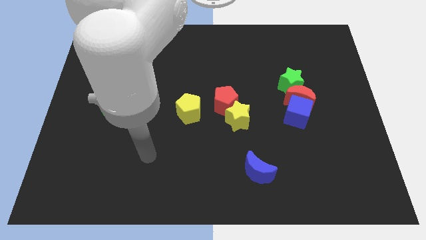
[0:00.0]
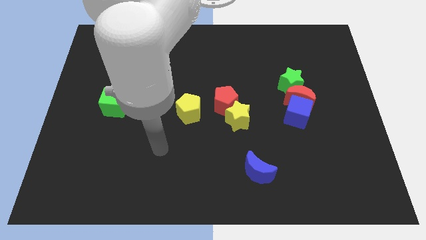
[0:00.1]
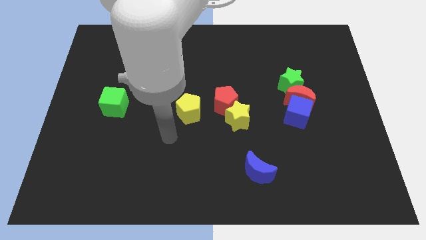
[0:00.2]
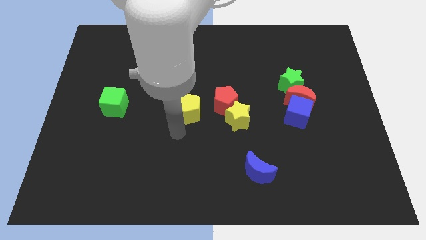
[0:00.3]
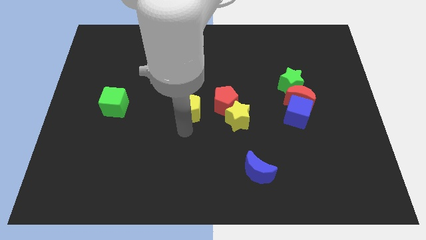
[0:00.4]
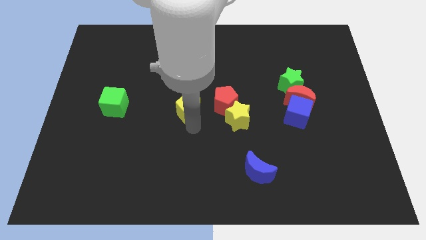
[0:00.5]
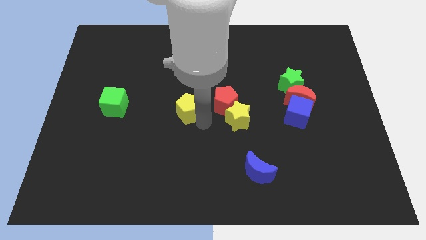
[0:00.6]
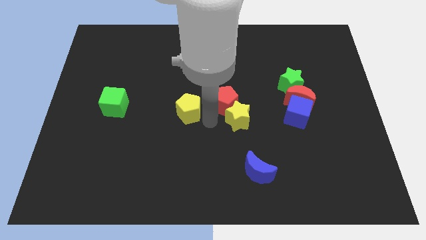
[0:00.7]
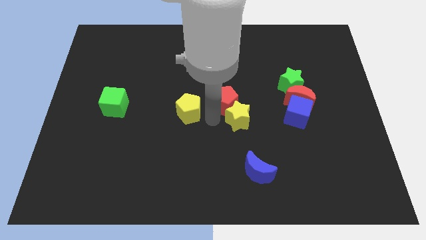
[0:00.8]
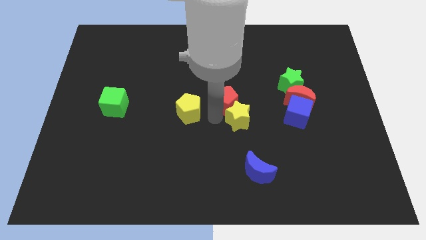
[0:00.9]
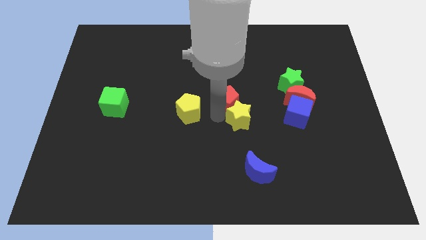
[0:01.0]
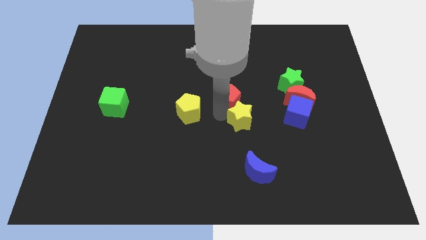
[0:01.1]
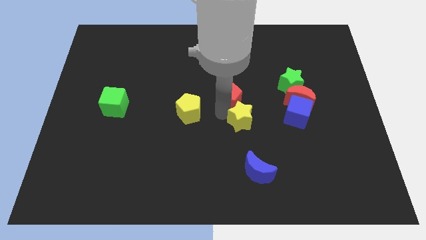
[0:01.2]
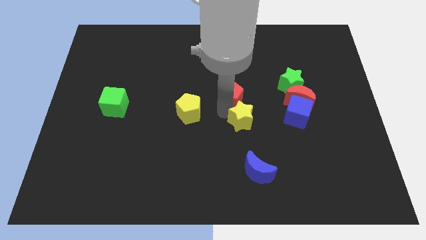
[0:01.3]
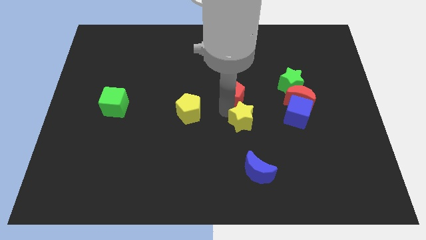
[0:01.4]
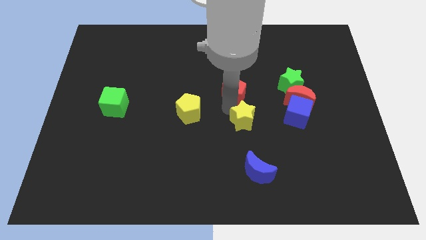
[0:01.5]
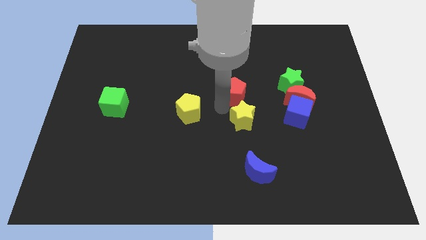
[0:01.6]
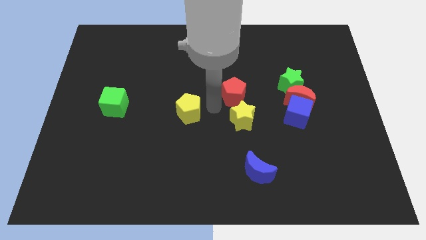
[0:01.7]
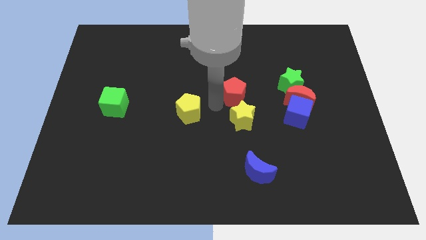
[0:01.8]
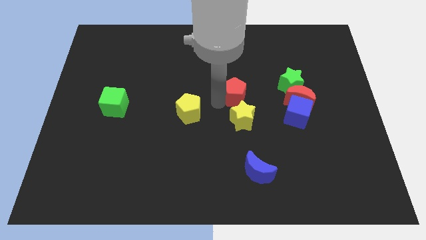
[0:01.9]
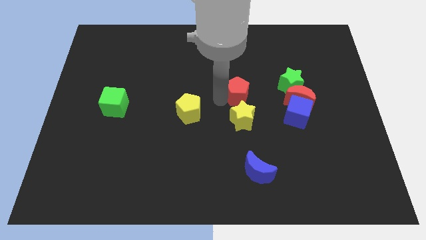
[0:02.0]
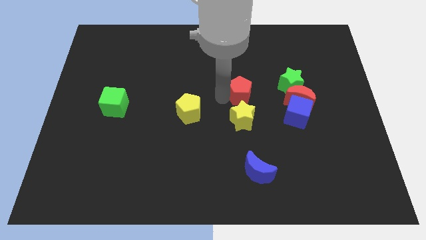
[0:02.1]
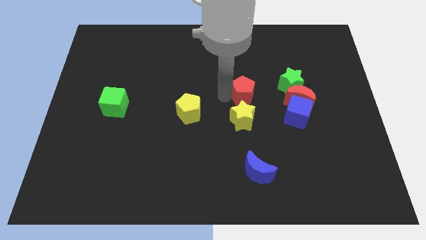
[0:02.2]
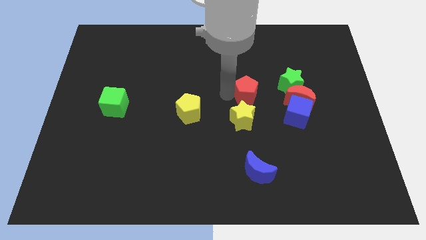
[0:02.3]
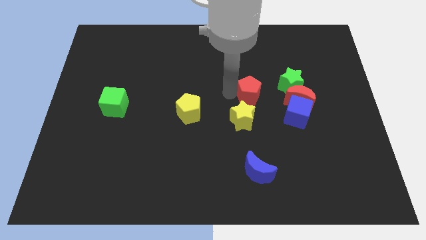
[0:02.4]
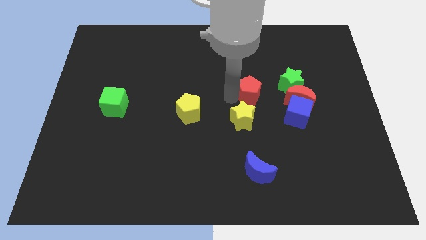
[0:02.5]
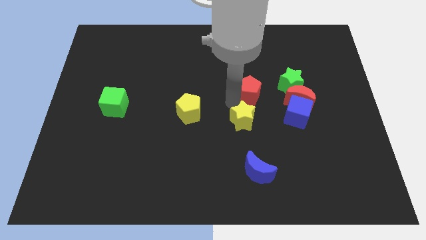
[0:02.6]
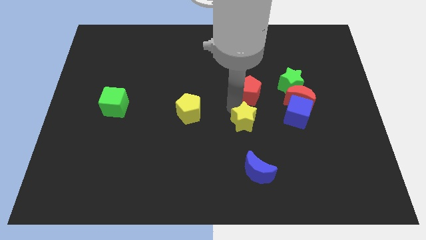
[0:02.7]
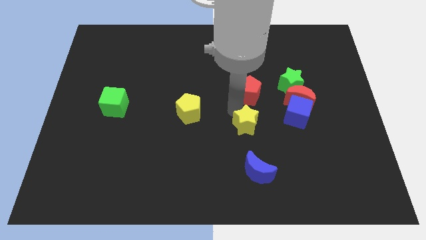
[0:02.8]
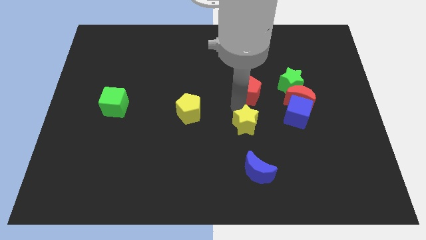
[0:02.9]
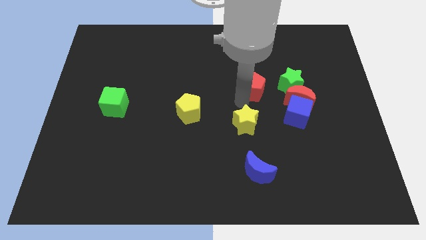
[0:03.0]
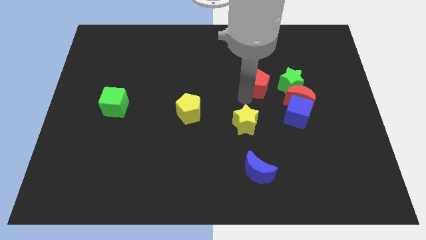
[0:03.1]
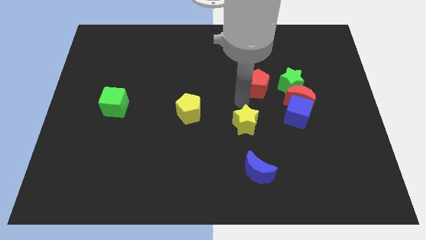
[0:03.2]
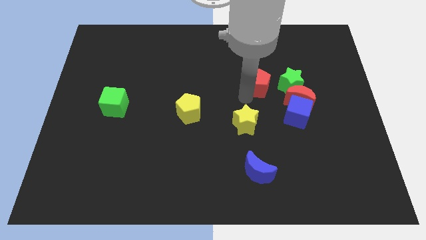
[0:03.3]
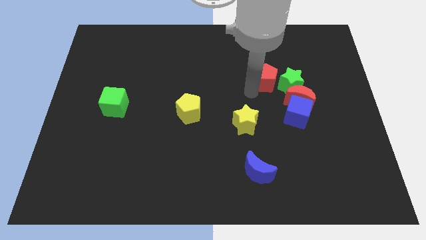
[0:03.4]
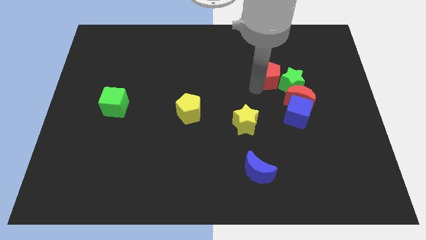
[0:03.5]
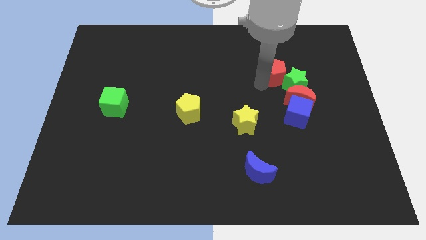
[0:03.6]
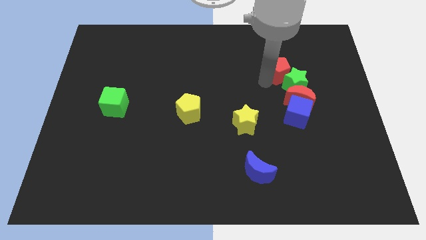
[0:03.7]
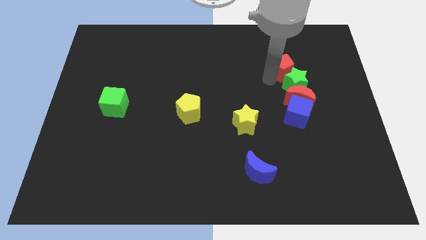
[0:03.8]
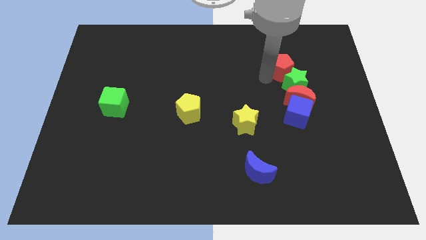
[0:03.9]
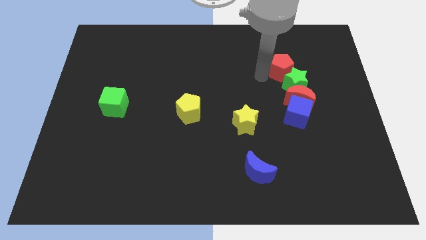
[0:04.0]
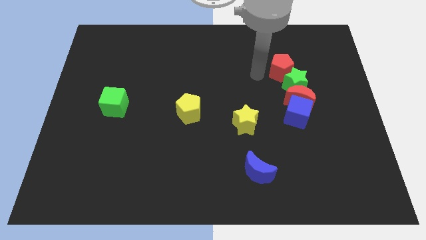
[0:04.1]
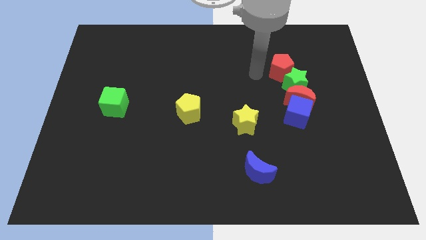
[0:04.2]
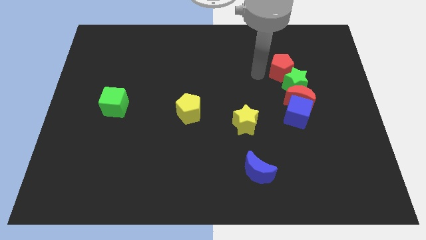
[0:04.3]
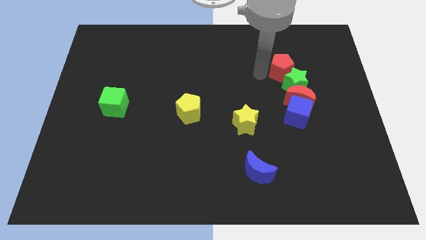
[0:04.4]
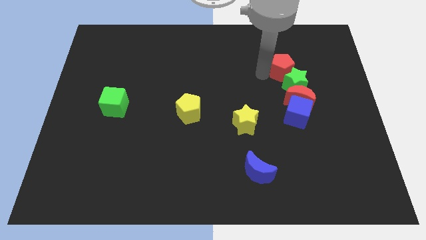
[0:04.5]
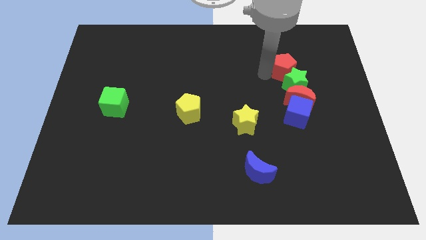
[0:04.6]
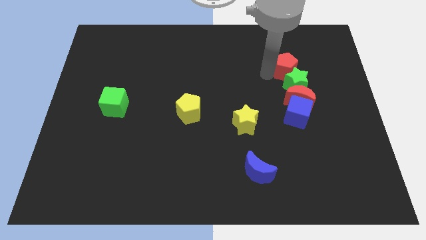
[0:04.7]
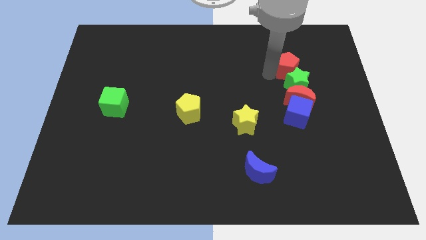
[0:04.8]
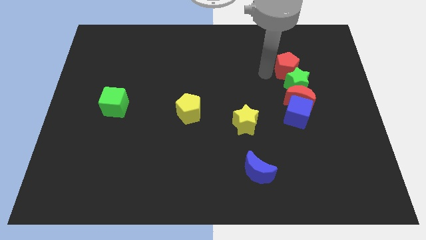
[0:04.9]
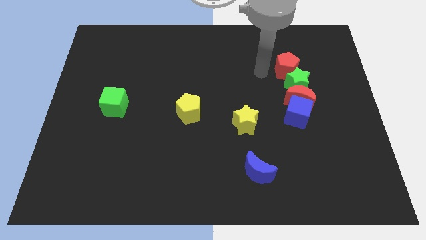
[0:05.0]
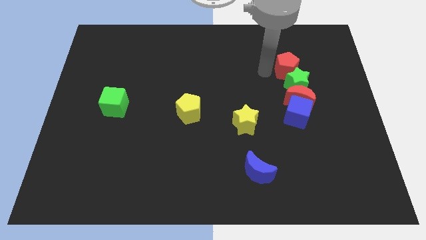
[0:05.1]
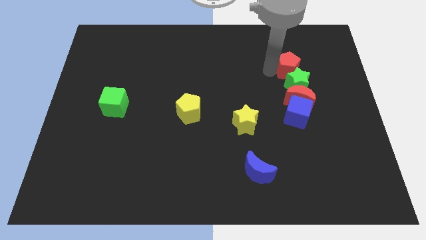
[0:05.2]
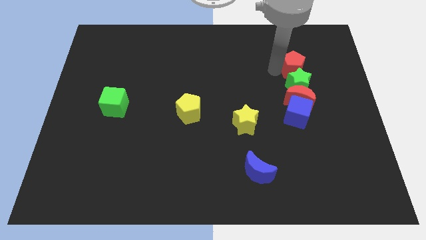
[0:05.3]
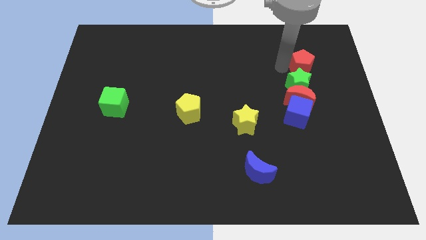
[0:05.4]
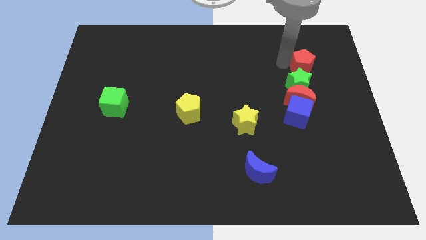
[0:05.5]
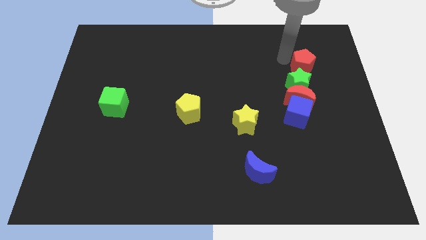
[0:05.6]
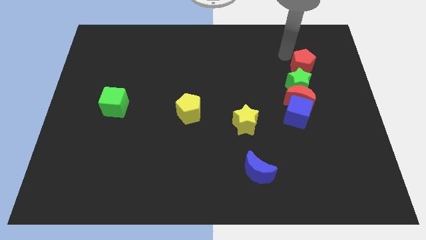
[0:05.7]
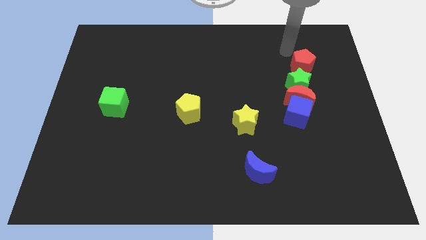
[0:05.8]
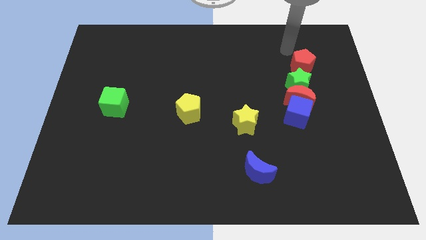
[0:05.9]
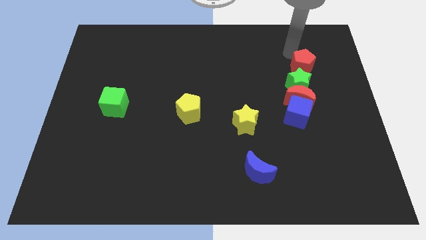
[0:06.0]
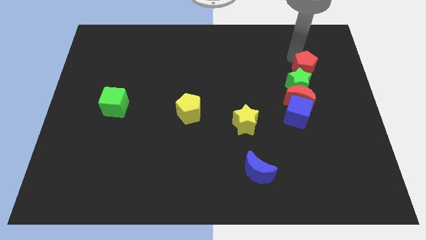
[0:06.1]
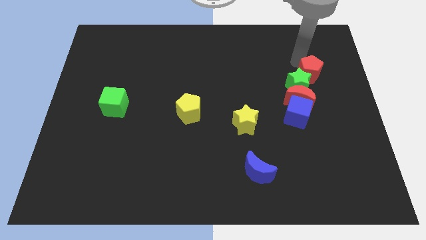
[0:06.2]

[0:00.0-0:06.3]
move the red pentagon to the top right side of the red moon

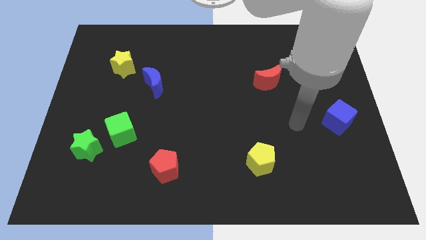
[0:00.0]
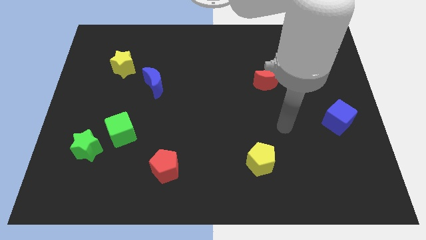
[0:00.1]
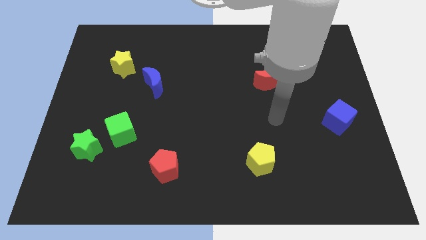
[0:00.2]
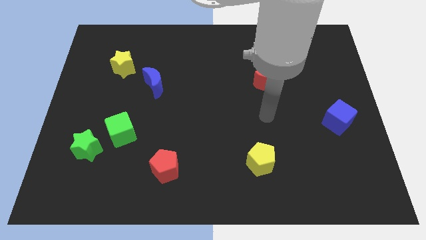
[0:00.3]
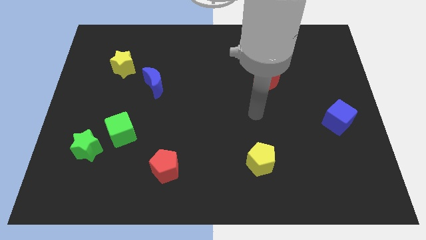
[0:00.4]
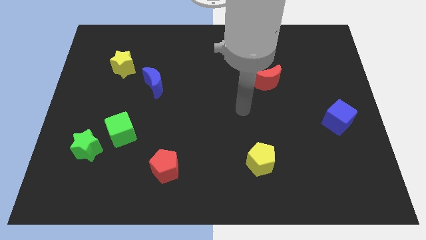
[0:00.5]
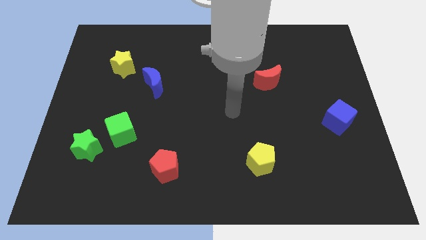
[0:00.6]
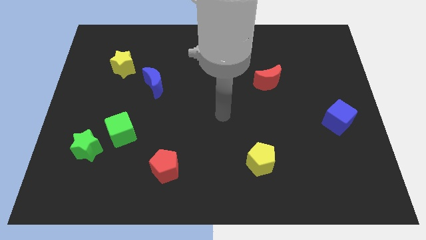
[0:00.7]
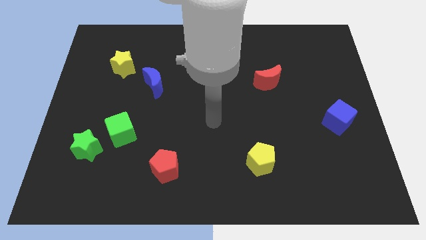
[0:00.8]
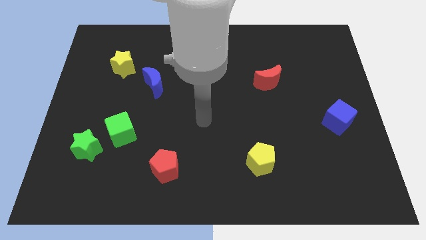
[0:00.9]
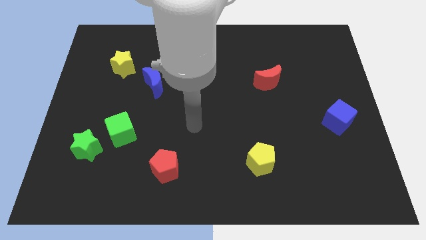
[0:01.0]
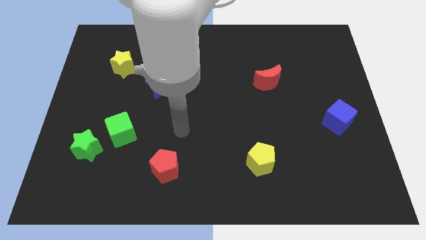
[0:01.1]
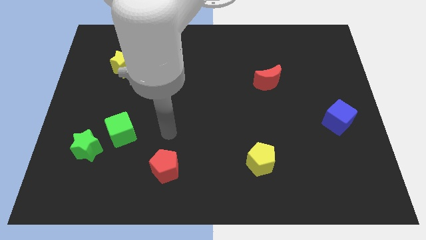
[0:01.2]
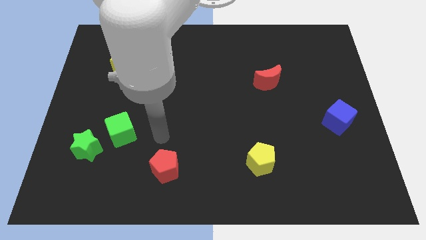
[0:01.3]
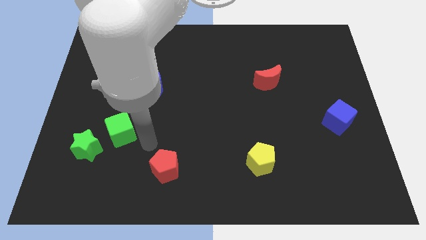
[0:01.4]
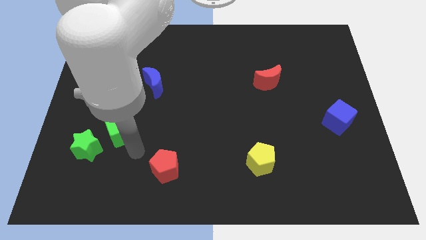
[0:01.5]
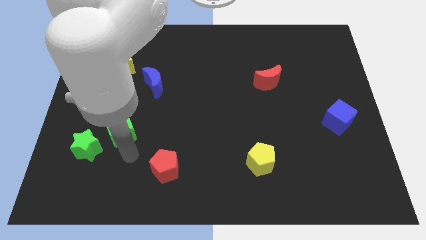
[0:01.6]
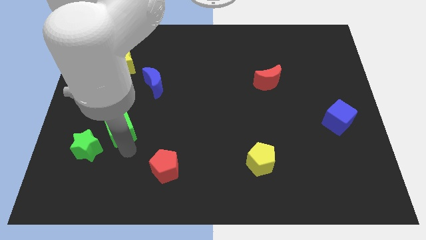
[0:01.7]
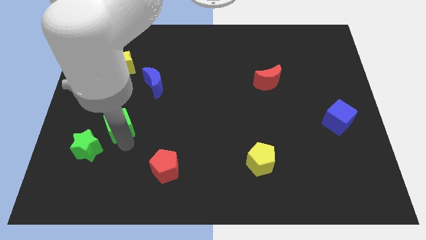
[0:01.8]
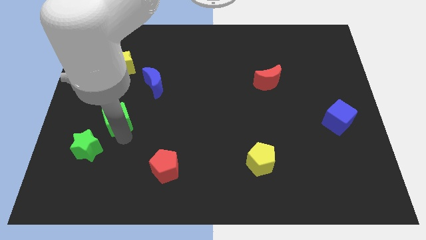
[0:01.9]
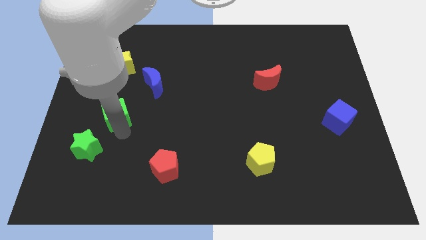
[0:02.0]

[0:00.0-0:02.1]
slide the green cube to the bottom of the yellow star
